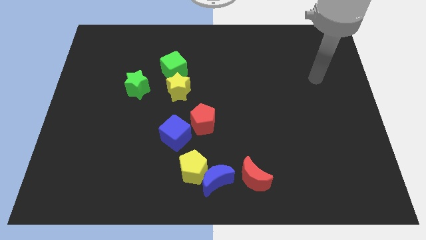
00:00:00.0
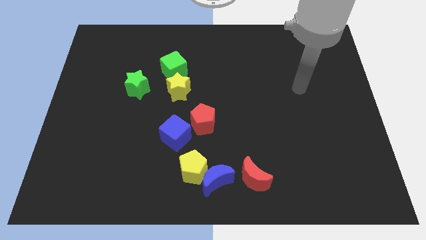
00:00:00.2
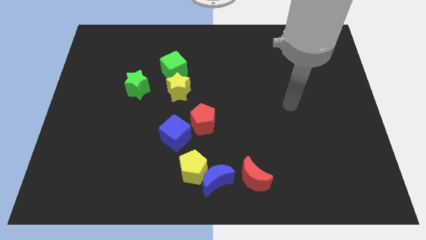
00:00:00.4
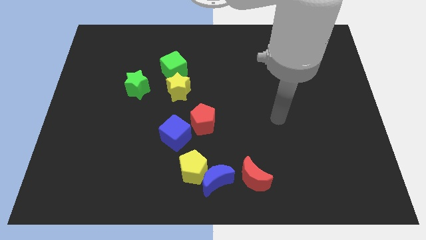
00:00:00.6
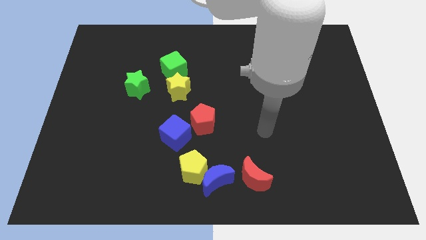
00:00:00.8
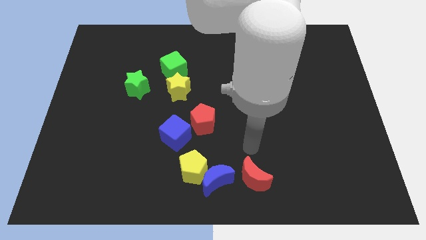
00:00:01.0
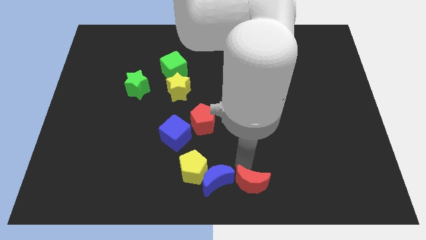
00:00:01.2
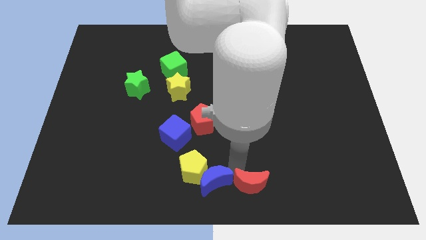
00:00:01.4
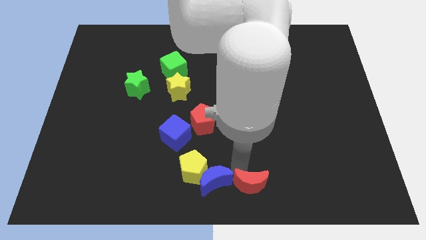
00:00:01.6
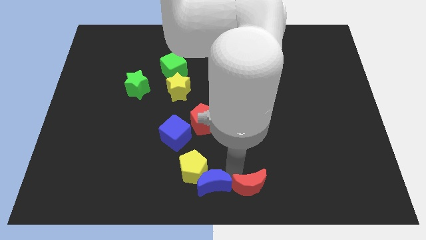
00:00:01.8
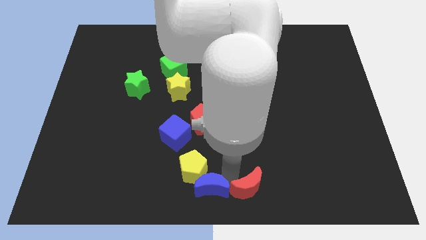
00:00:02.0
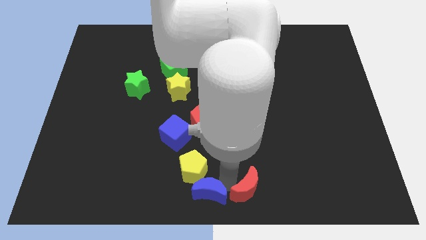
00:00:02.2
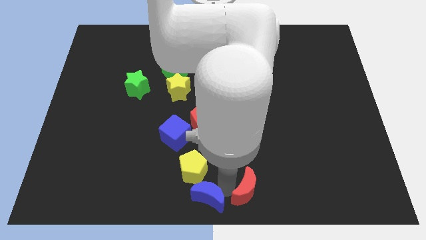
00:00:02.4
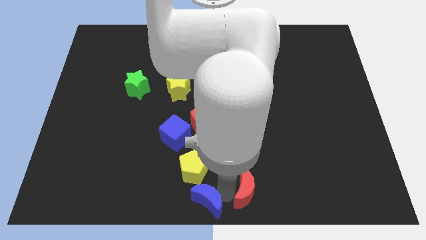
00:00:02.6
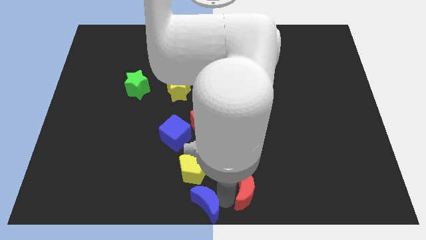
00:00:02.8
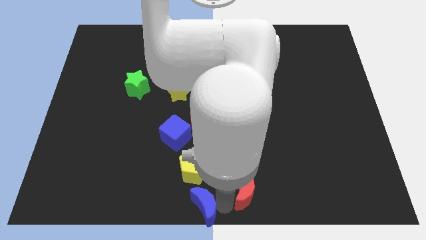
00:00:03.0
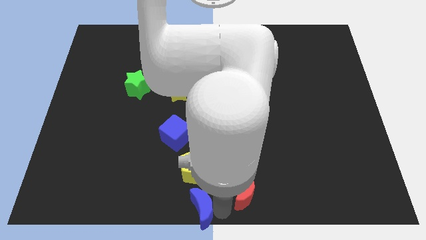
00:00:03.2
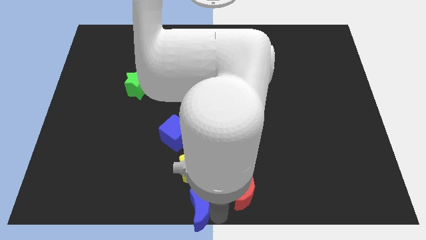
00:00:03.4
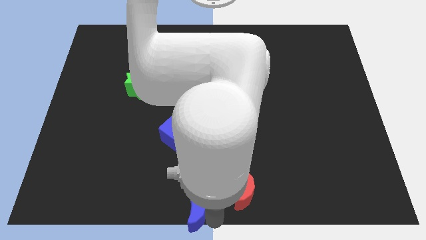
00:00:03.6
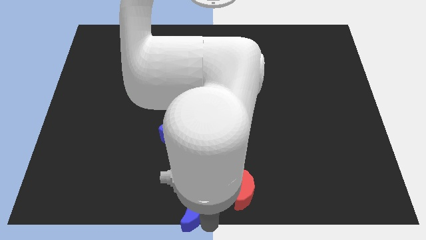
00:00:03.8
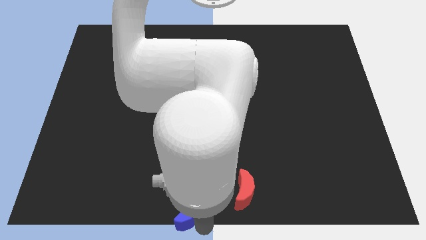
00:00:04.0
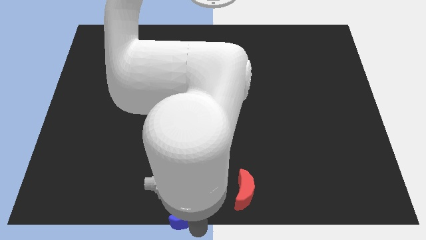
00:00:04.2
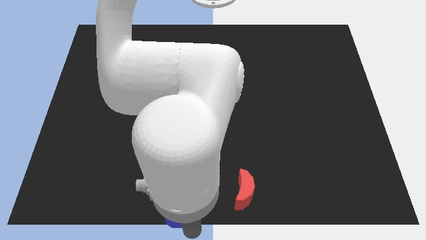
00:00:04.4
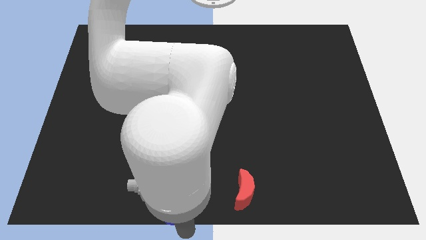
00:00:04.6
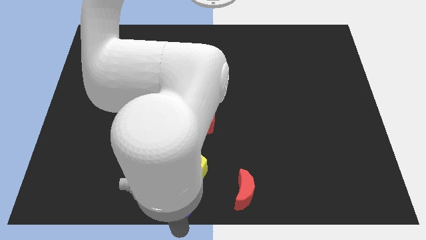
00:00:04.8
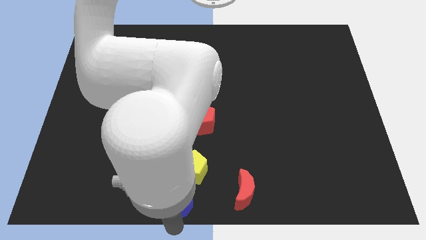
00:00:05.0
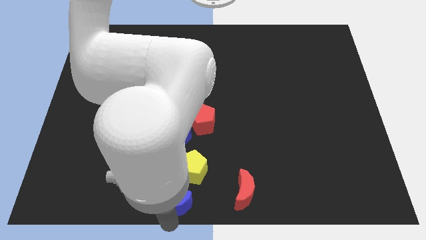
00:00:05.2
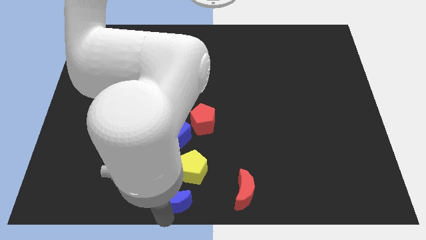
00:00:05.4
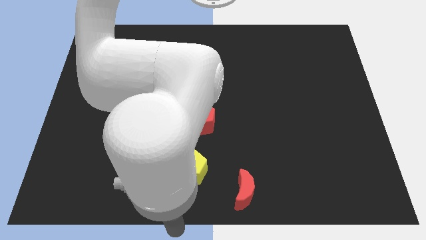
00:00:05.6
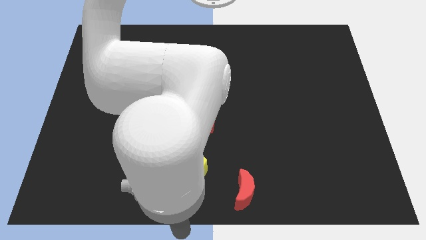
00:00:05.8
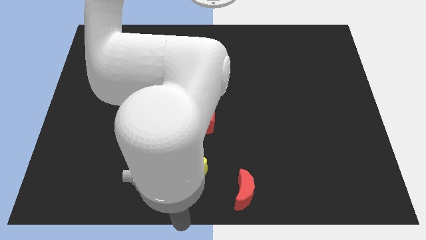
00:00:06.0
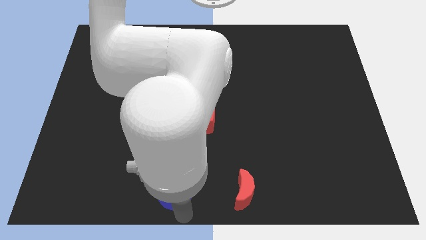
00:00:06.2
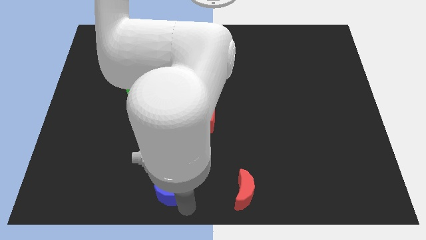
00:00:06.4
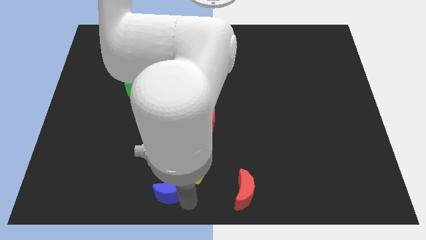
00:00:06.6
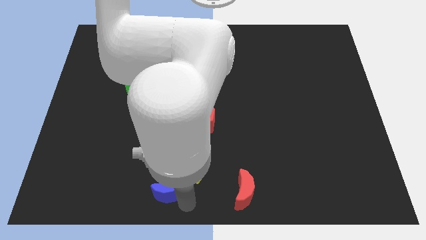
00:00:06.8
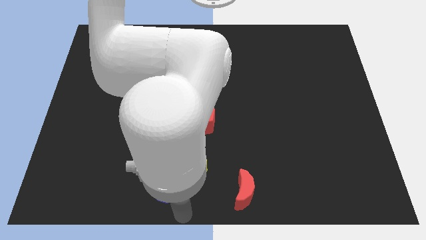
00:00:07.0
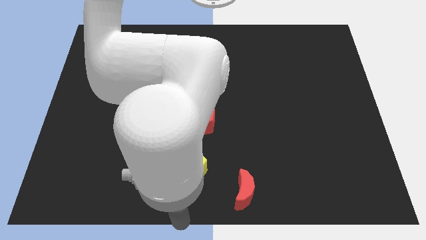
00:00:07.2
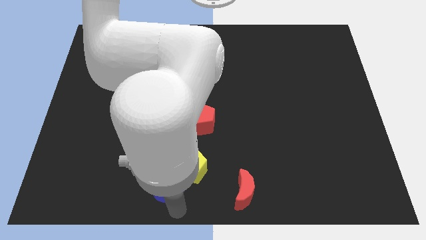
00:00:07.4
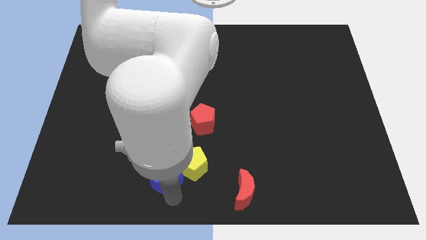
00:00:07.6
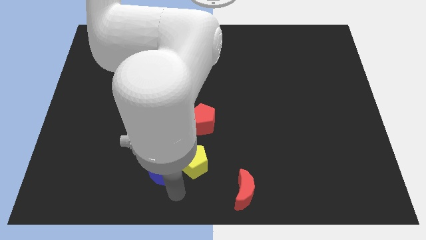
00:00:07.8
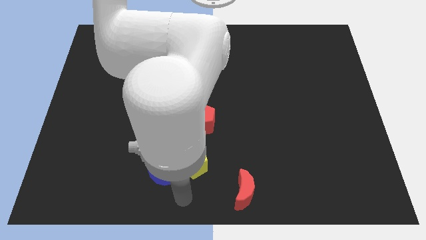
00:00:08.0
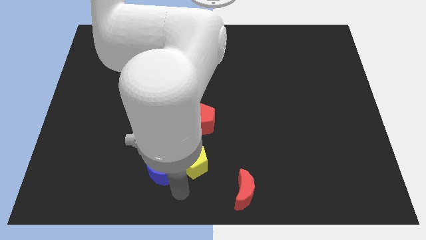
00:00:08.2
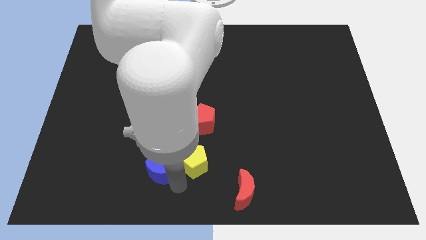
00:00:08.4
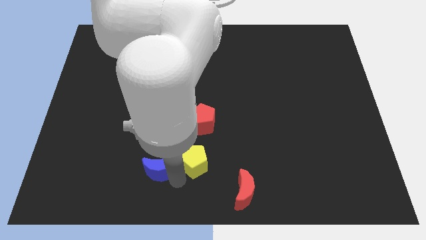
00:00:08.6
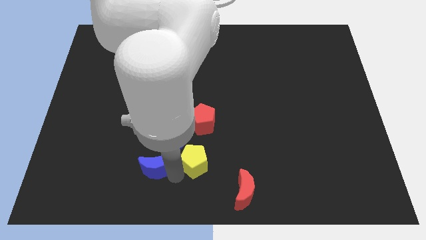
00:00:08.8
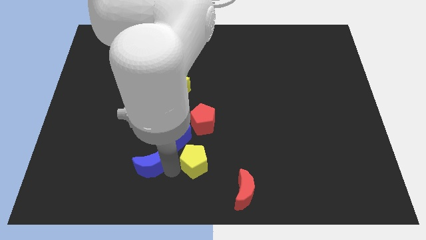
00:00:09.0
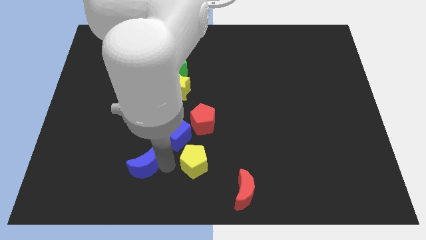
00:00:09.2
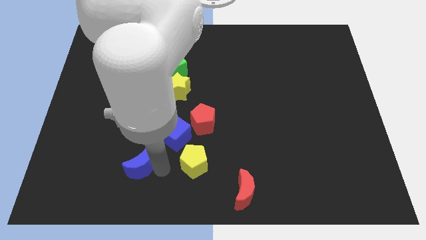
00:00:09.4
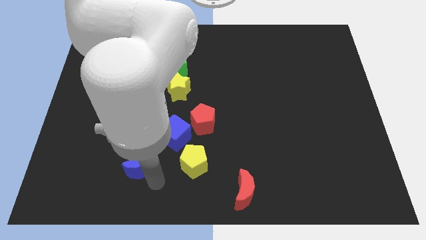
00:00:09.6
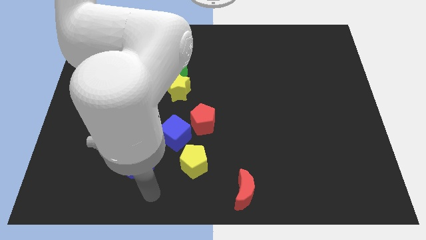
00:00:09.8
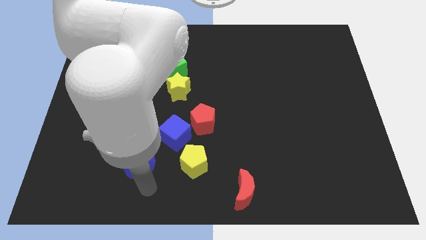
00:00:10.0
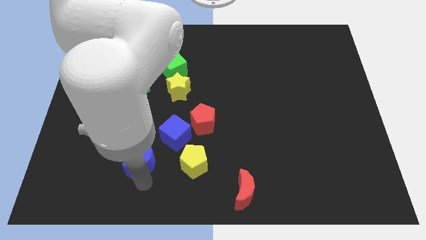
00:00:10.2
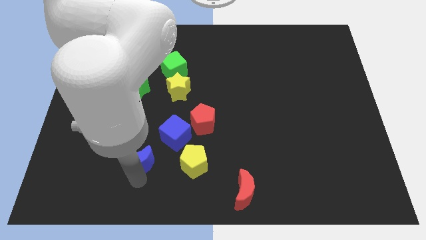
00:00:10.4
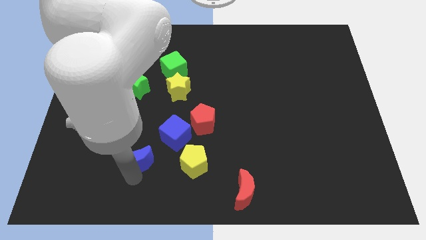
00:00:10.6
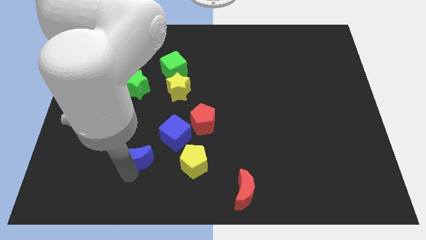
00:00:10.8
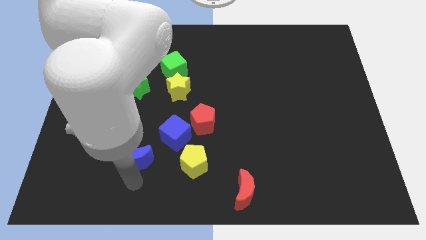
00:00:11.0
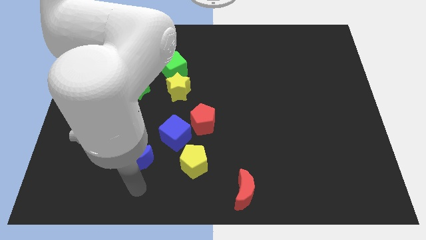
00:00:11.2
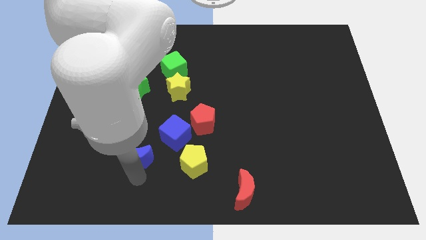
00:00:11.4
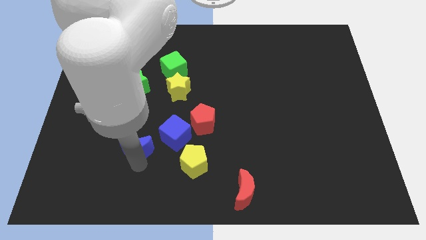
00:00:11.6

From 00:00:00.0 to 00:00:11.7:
slide the blue moon left of the blue cube

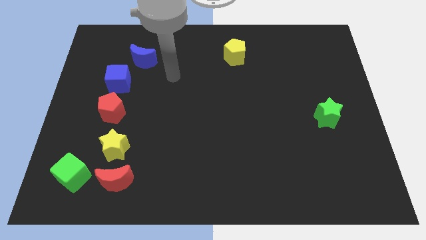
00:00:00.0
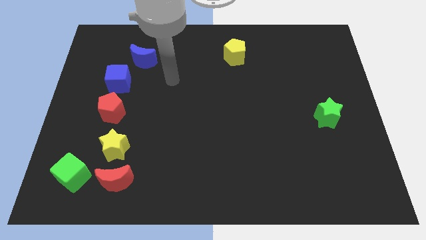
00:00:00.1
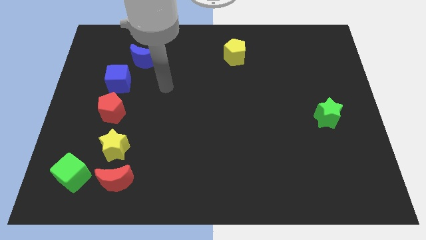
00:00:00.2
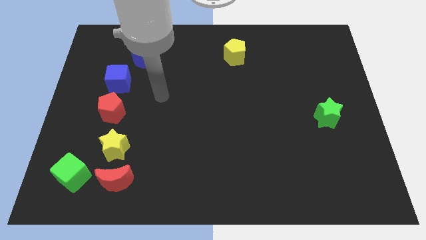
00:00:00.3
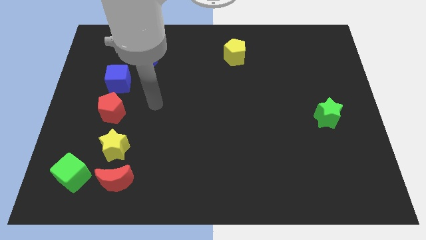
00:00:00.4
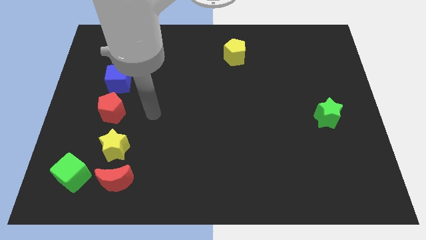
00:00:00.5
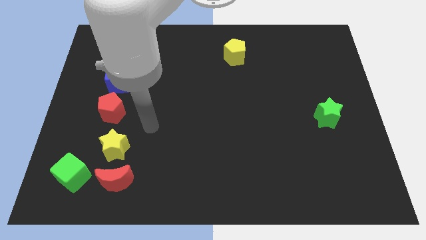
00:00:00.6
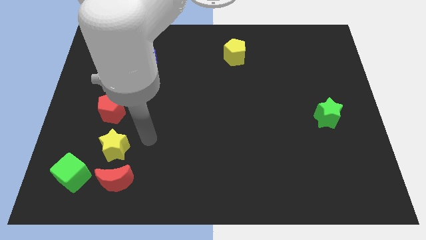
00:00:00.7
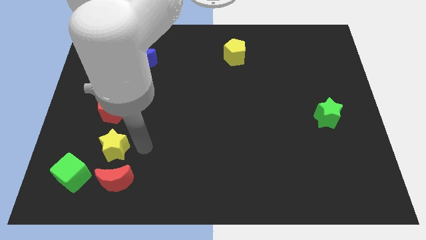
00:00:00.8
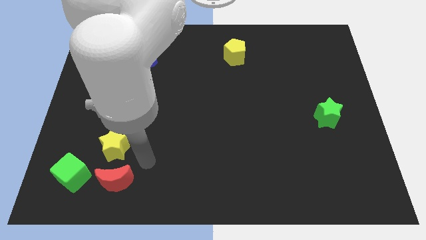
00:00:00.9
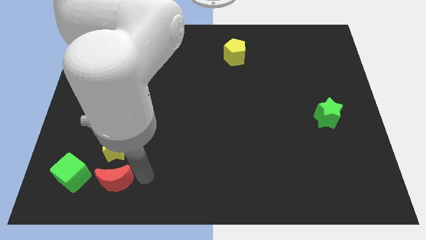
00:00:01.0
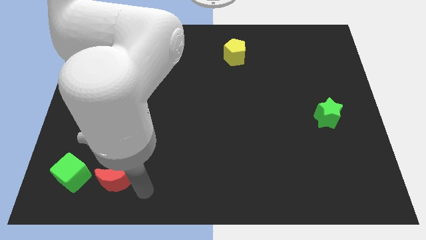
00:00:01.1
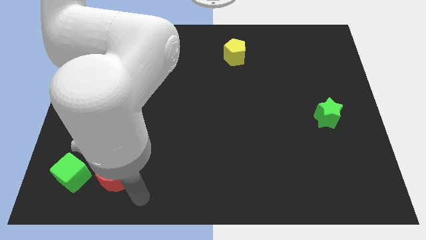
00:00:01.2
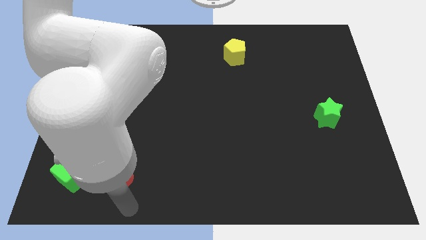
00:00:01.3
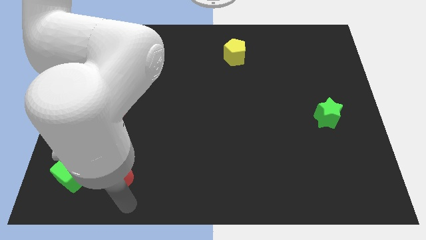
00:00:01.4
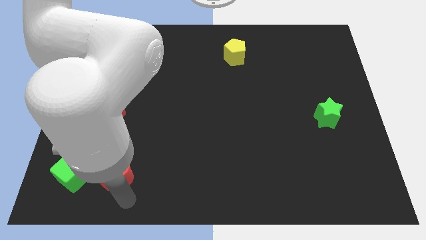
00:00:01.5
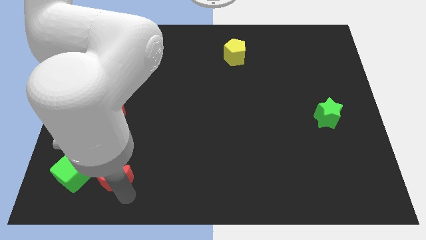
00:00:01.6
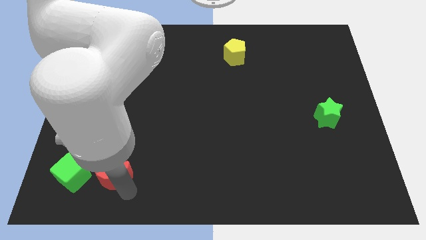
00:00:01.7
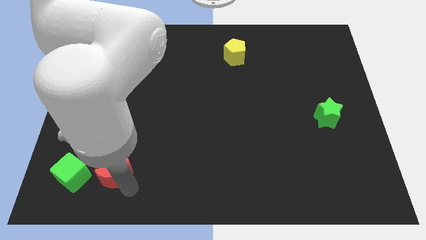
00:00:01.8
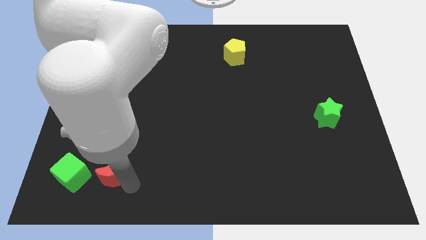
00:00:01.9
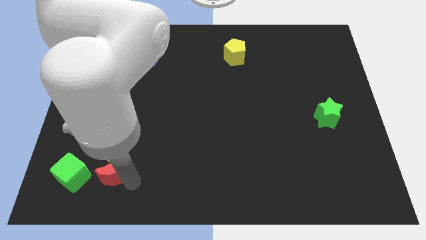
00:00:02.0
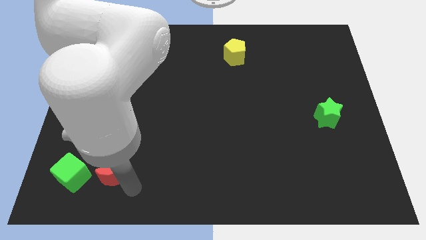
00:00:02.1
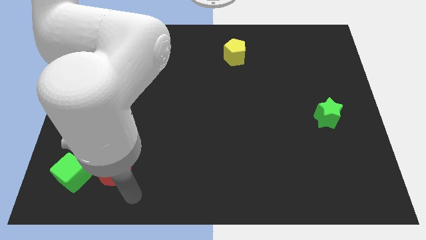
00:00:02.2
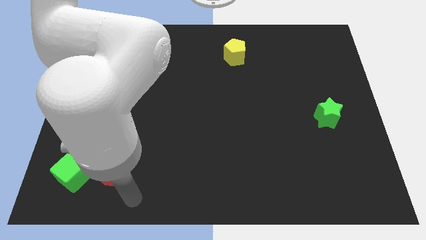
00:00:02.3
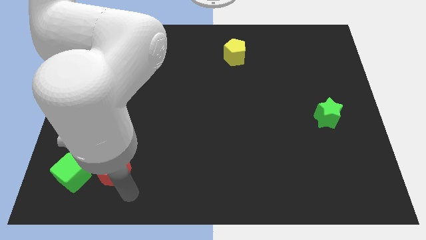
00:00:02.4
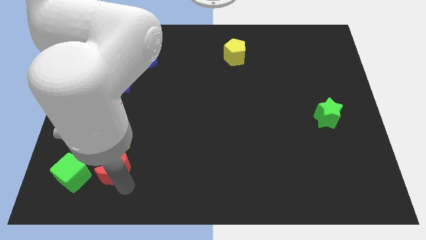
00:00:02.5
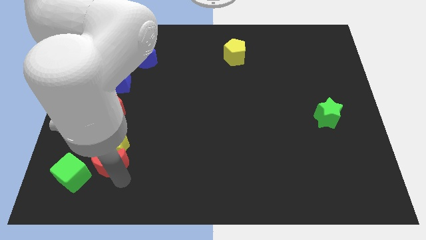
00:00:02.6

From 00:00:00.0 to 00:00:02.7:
push the red moon to the bottom side of the red pentagon
